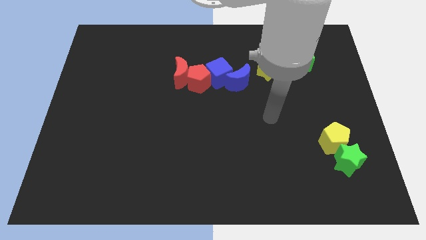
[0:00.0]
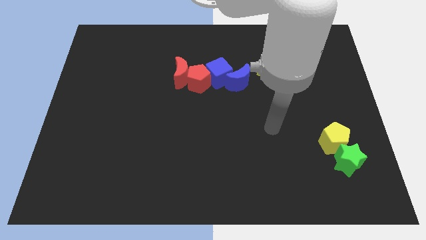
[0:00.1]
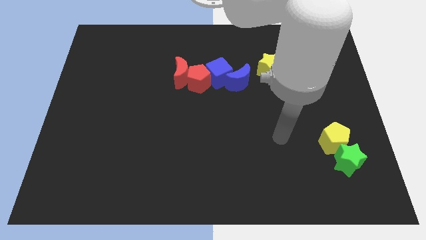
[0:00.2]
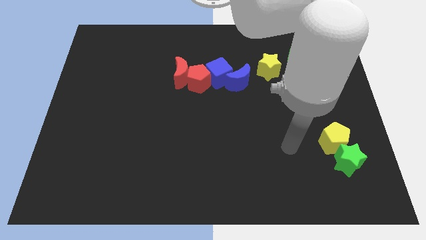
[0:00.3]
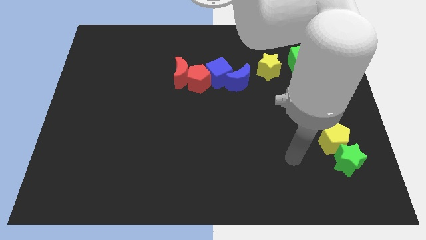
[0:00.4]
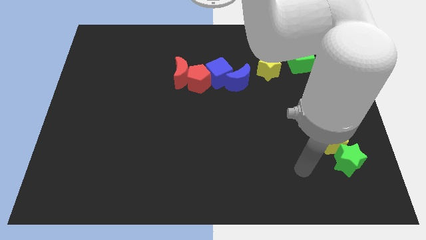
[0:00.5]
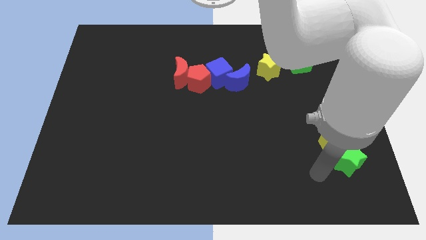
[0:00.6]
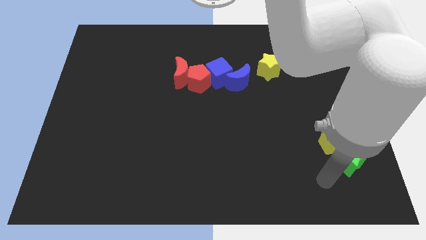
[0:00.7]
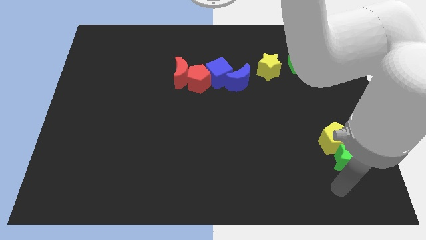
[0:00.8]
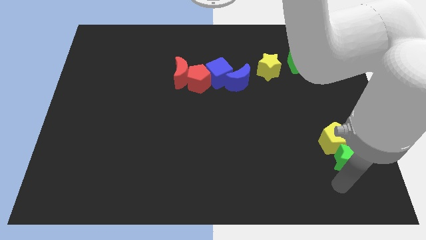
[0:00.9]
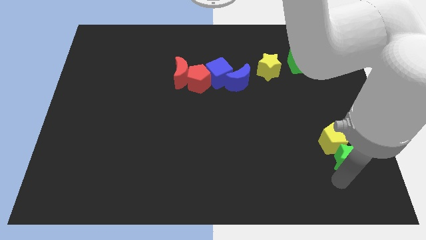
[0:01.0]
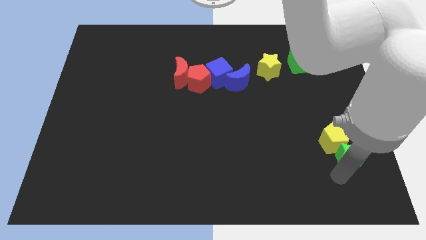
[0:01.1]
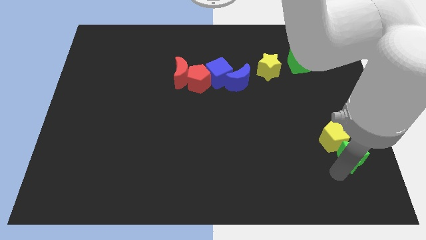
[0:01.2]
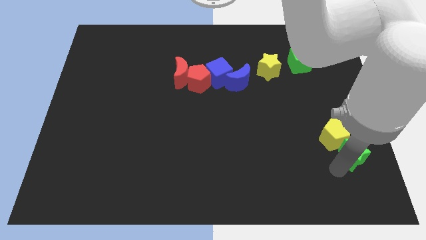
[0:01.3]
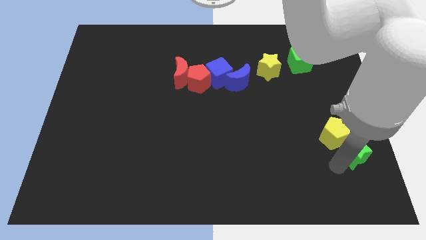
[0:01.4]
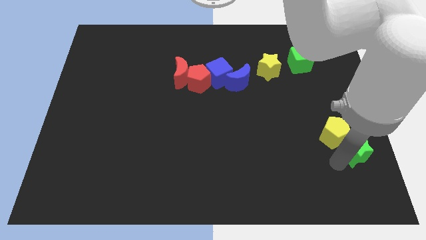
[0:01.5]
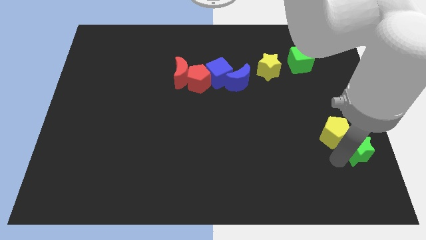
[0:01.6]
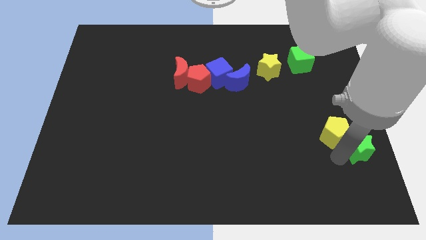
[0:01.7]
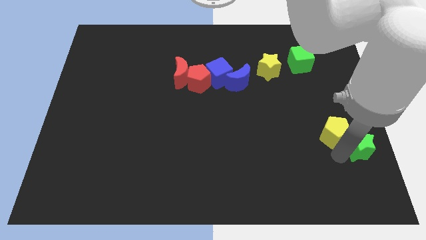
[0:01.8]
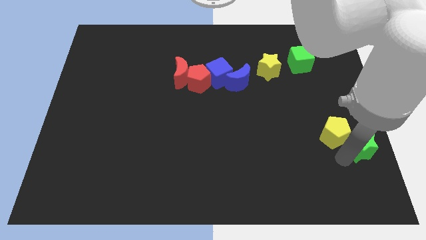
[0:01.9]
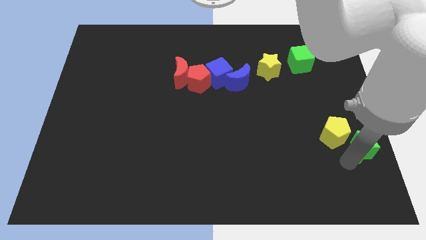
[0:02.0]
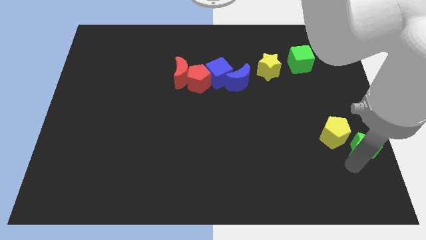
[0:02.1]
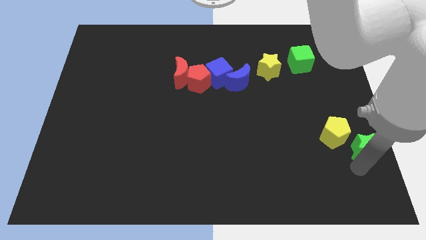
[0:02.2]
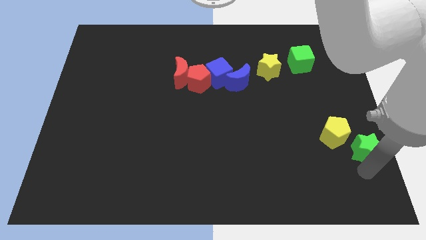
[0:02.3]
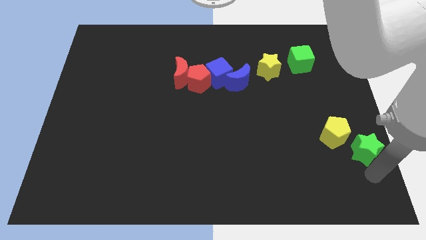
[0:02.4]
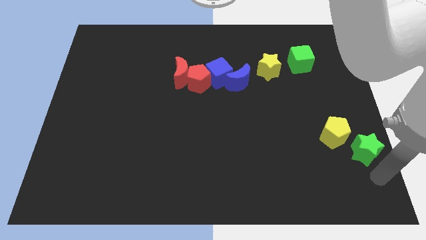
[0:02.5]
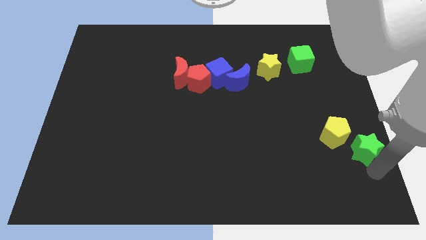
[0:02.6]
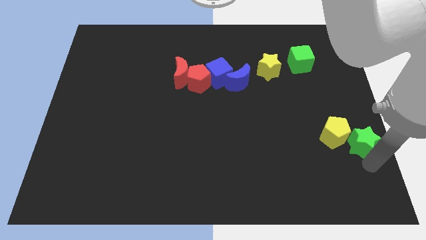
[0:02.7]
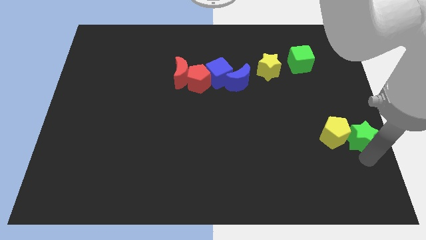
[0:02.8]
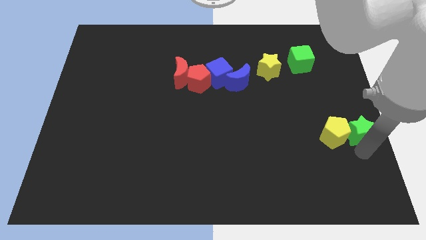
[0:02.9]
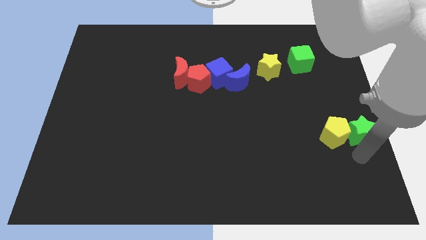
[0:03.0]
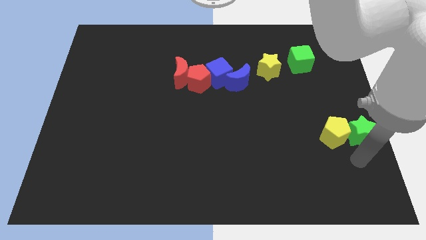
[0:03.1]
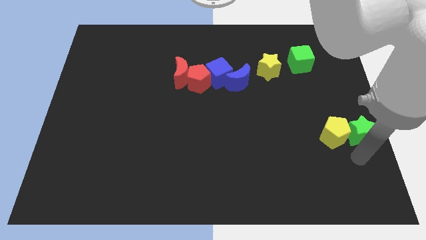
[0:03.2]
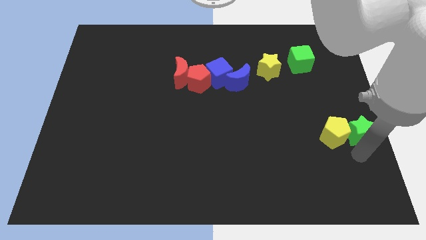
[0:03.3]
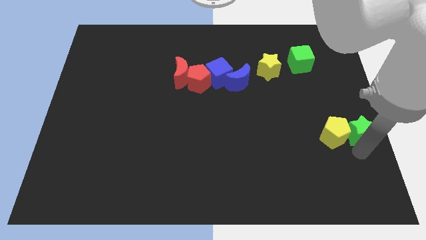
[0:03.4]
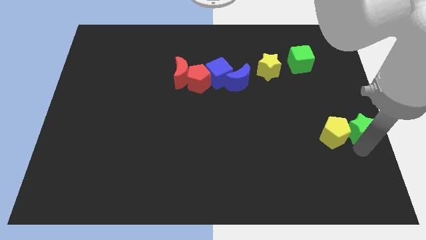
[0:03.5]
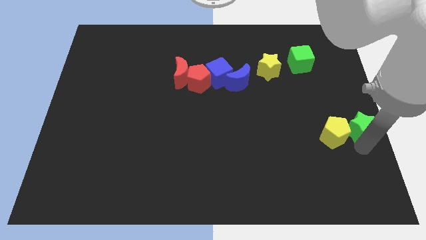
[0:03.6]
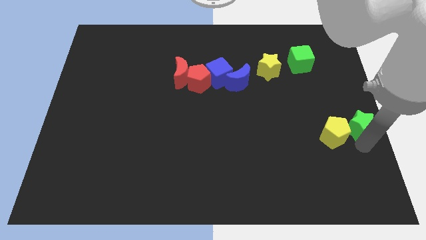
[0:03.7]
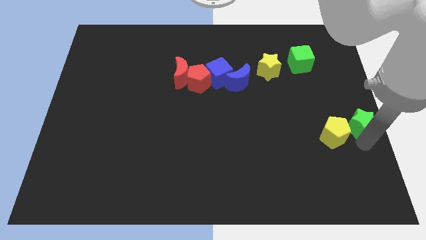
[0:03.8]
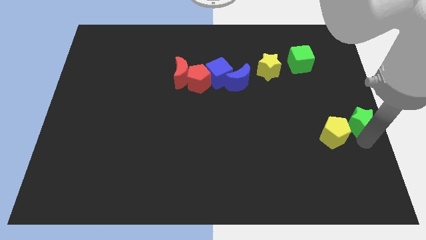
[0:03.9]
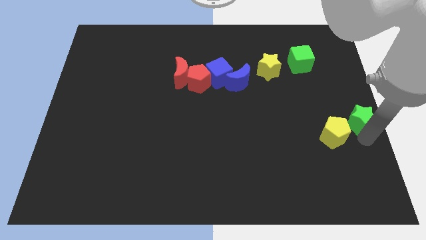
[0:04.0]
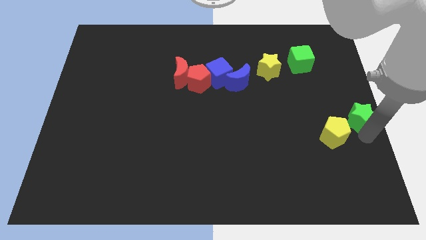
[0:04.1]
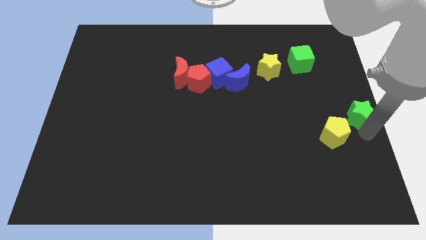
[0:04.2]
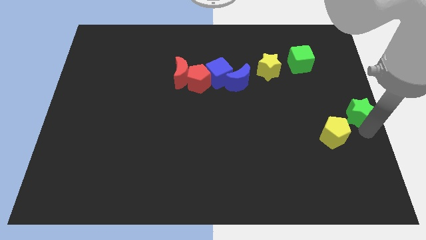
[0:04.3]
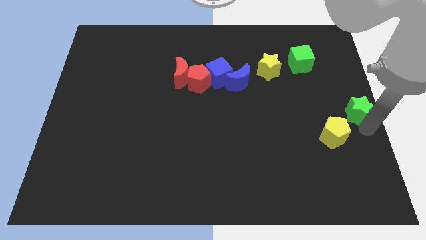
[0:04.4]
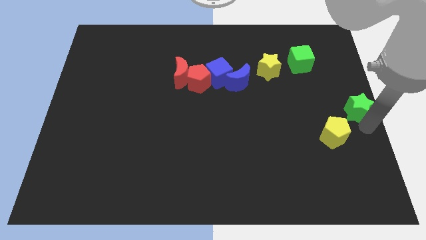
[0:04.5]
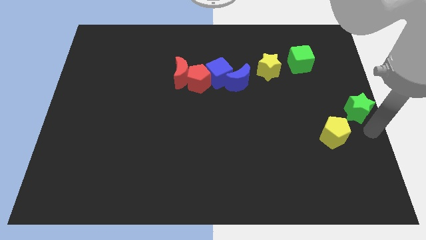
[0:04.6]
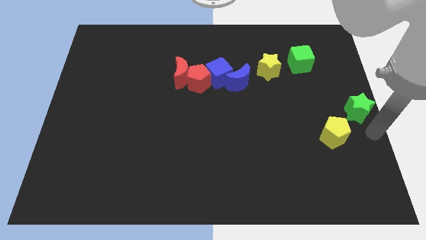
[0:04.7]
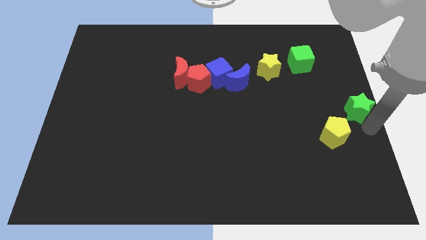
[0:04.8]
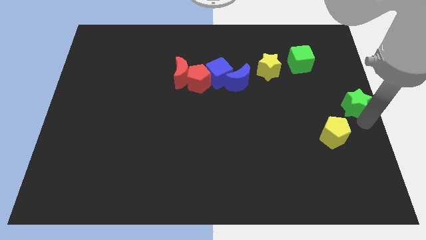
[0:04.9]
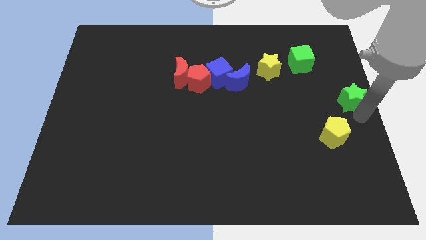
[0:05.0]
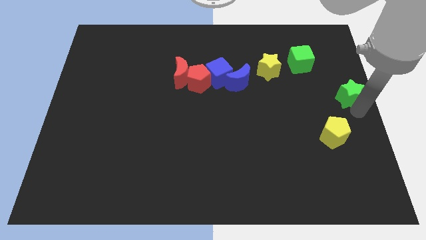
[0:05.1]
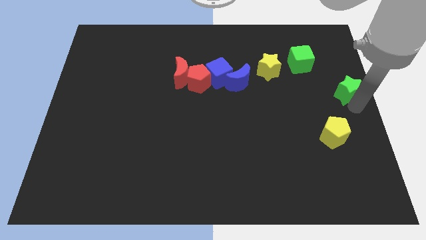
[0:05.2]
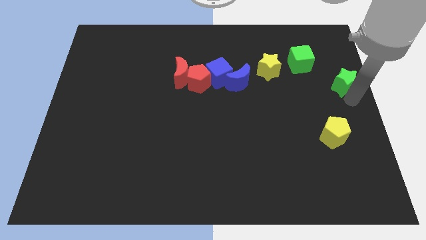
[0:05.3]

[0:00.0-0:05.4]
move the green star upwards

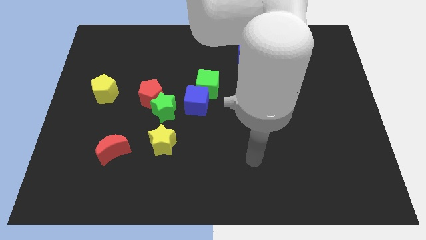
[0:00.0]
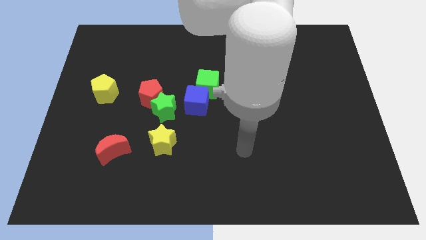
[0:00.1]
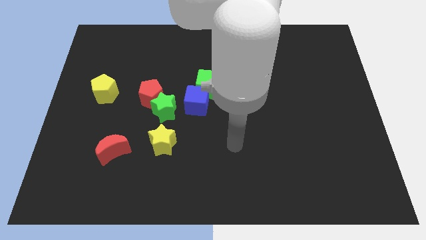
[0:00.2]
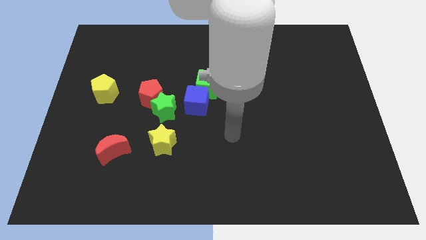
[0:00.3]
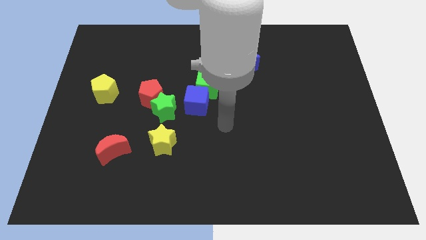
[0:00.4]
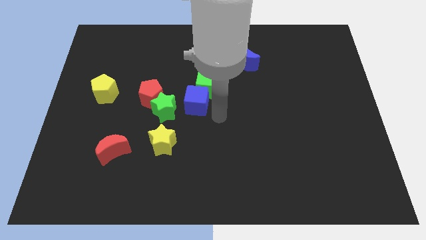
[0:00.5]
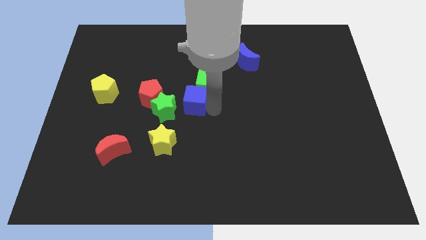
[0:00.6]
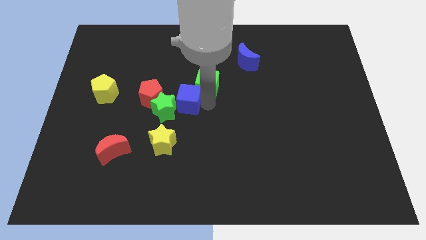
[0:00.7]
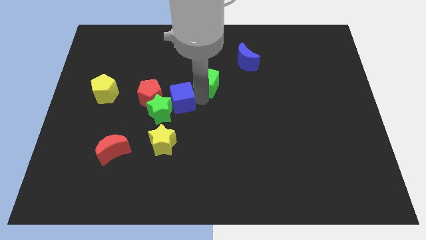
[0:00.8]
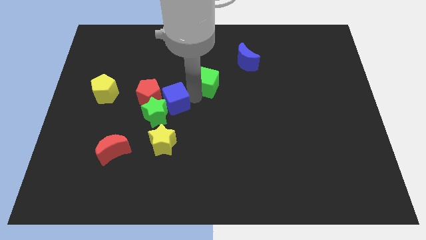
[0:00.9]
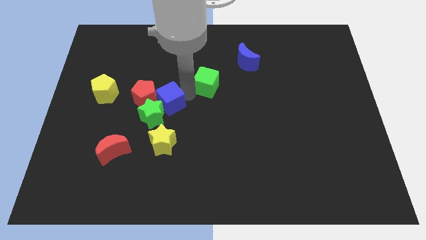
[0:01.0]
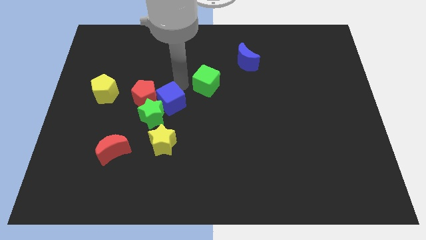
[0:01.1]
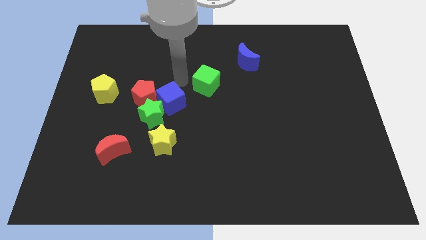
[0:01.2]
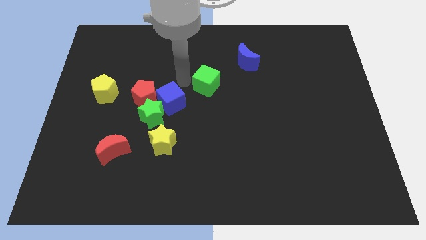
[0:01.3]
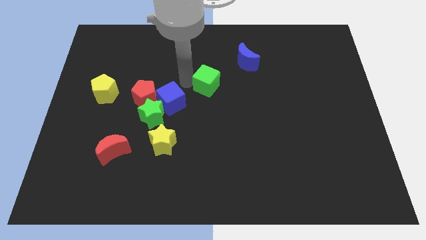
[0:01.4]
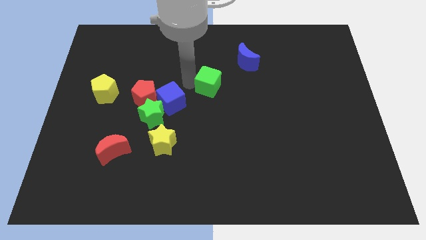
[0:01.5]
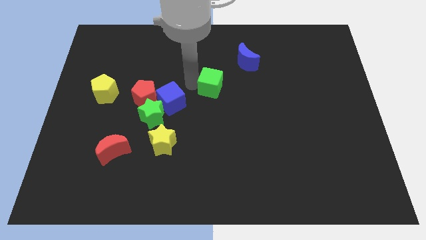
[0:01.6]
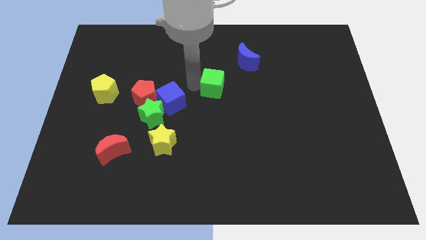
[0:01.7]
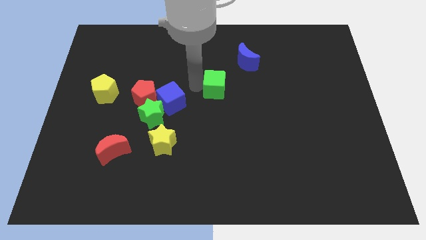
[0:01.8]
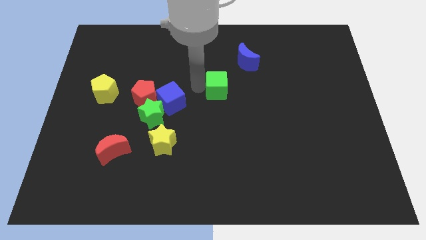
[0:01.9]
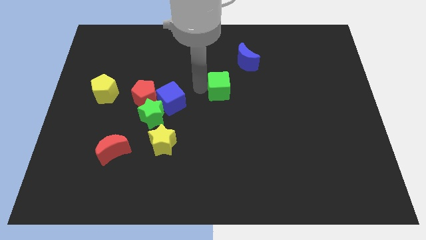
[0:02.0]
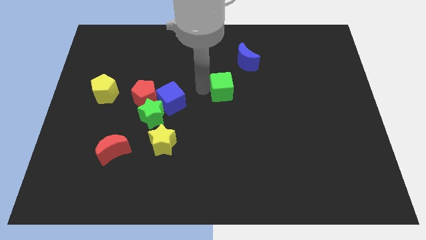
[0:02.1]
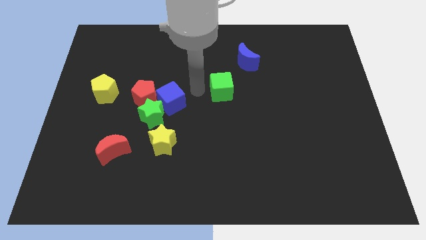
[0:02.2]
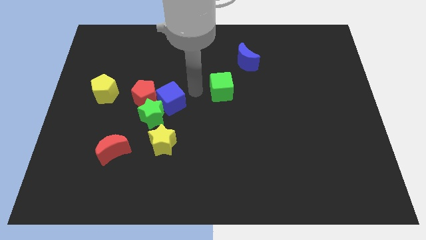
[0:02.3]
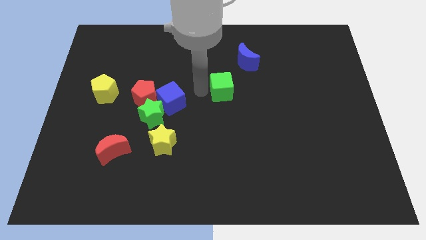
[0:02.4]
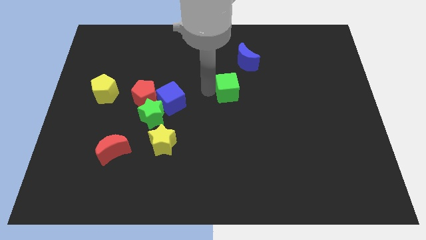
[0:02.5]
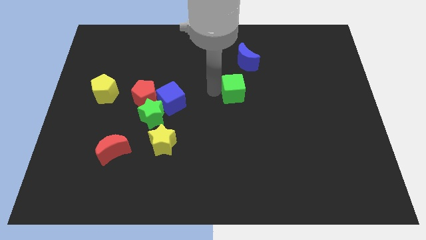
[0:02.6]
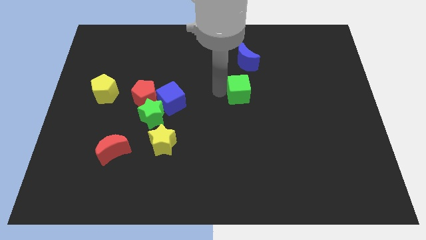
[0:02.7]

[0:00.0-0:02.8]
slide the green cube slightly right

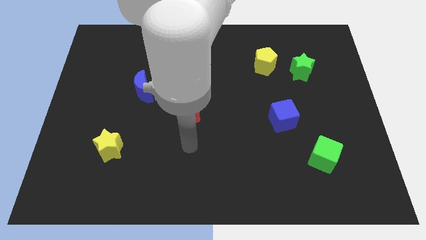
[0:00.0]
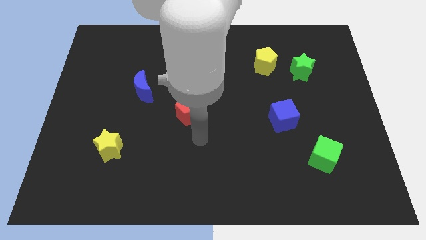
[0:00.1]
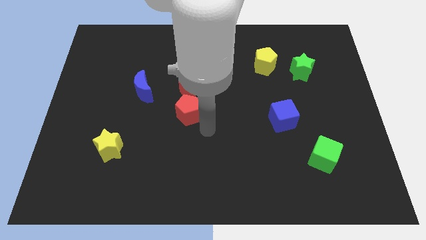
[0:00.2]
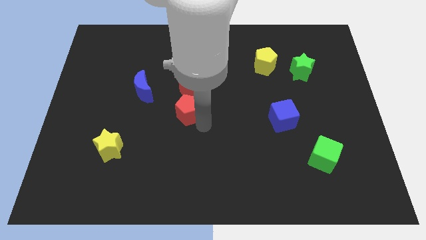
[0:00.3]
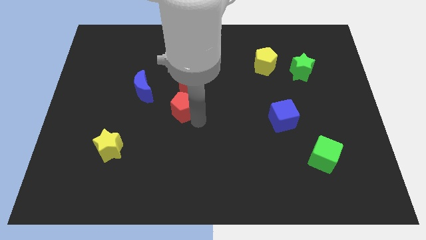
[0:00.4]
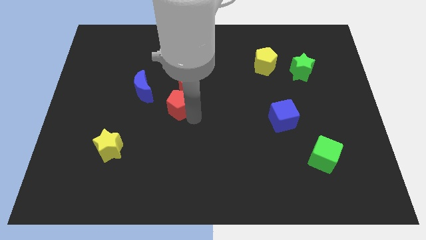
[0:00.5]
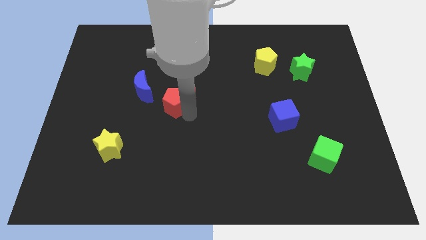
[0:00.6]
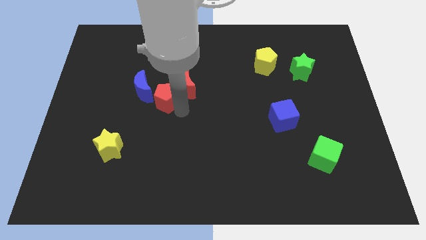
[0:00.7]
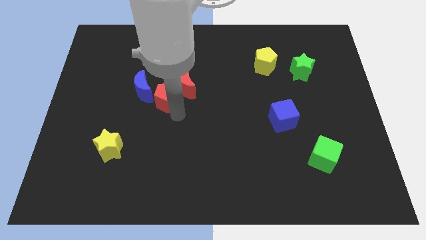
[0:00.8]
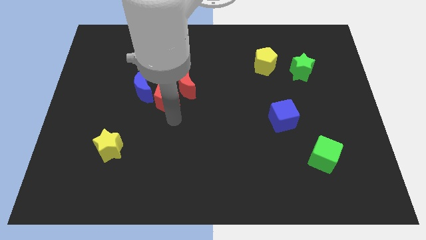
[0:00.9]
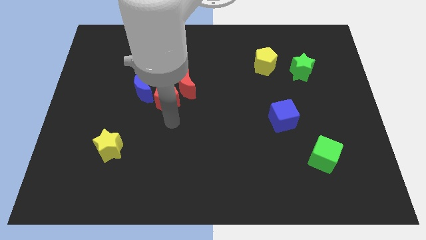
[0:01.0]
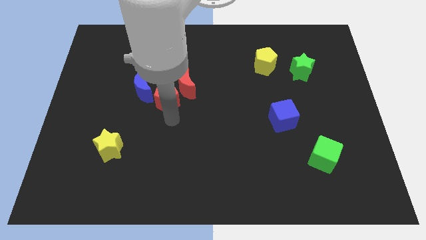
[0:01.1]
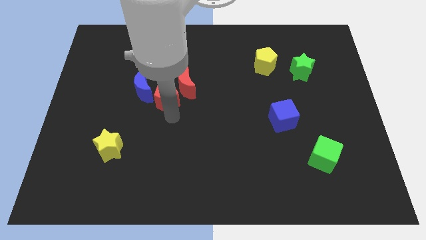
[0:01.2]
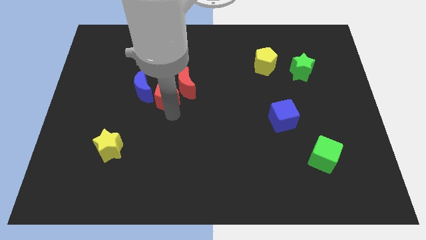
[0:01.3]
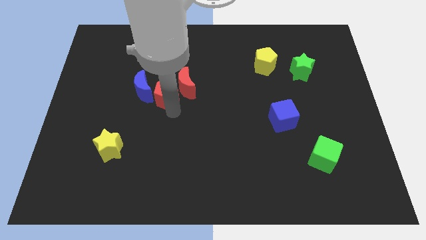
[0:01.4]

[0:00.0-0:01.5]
slightly move the red pentagon up and then to the left
